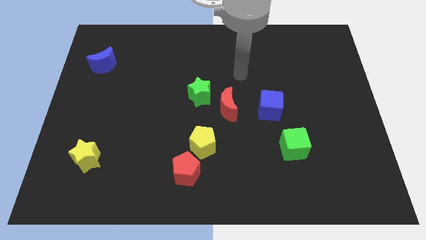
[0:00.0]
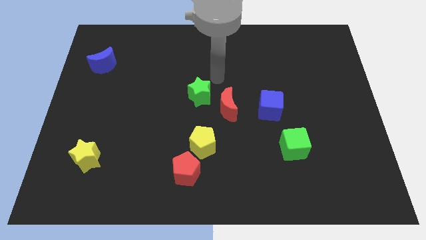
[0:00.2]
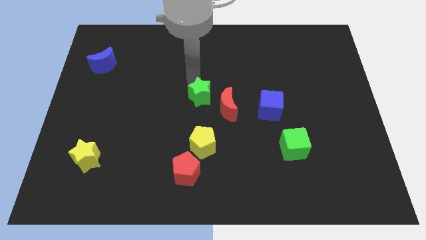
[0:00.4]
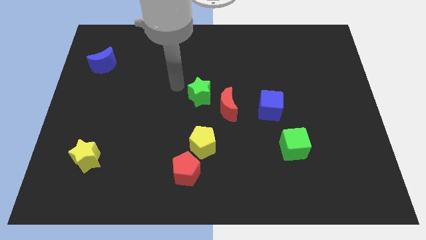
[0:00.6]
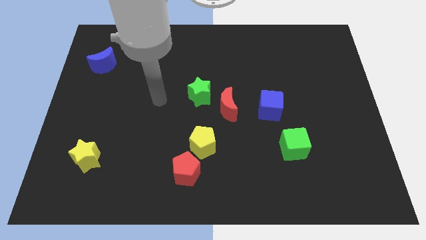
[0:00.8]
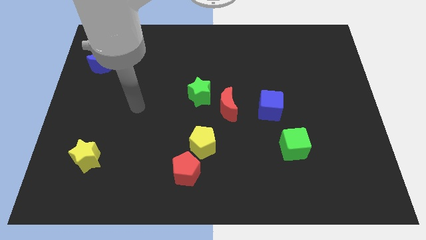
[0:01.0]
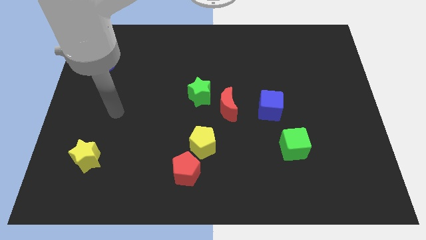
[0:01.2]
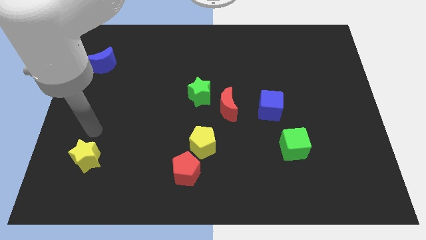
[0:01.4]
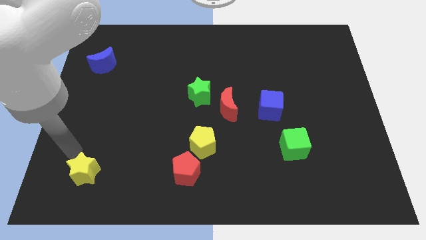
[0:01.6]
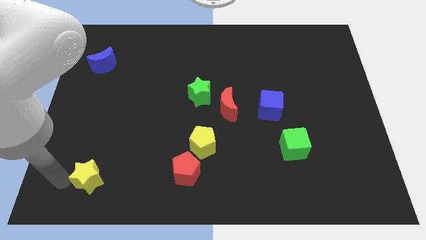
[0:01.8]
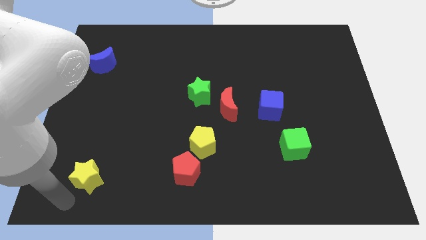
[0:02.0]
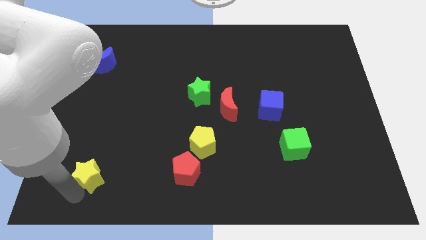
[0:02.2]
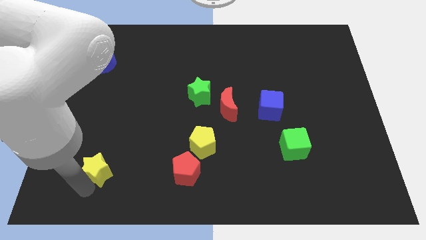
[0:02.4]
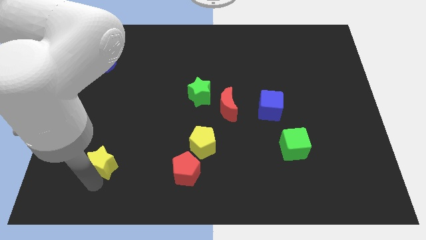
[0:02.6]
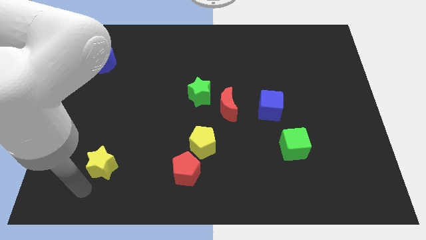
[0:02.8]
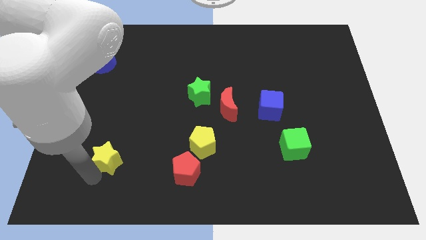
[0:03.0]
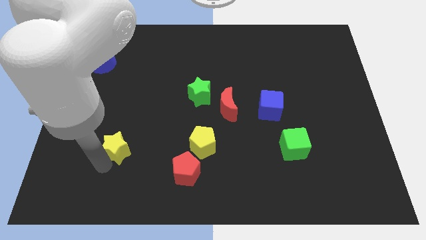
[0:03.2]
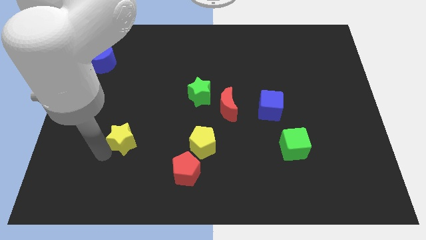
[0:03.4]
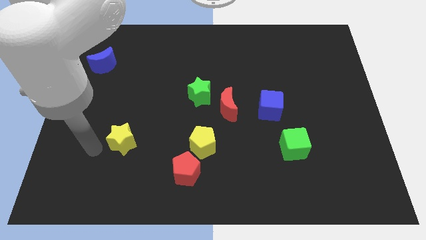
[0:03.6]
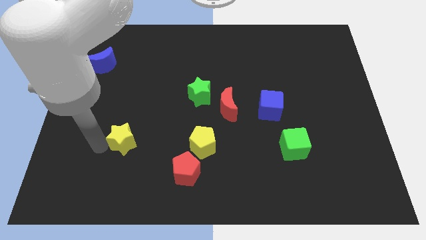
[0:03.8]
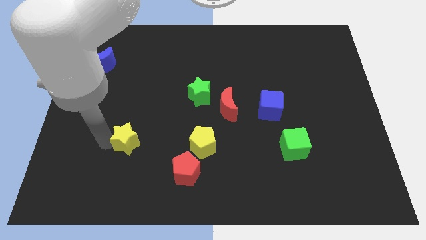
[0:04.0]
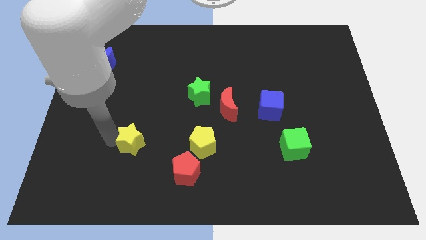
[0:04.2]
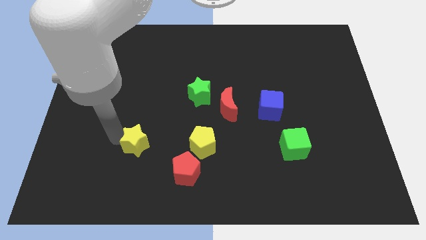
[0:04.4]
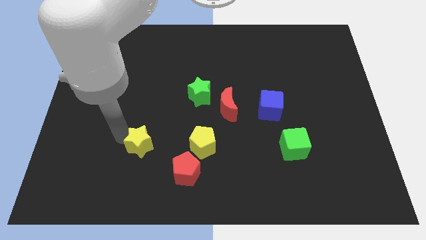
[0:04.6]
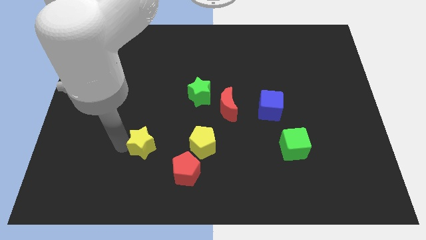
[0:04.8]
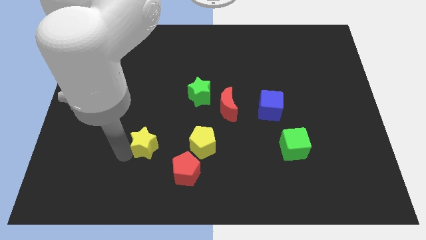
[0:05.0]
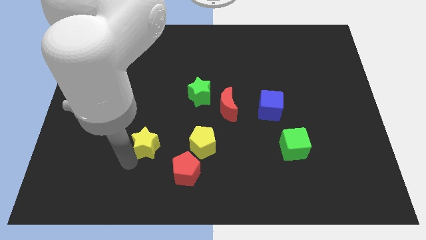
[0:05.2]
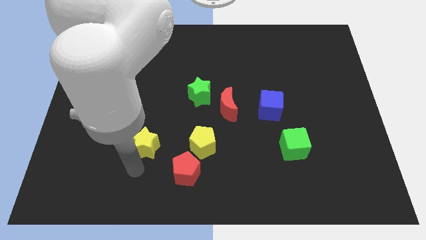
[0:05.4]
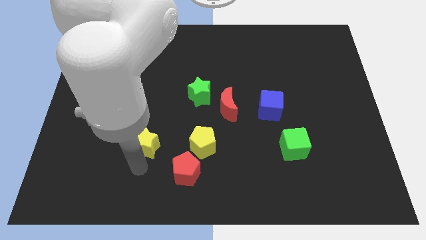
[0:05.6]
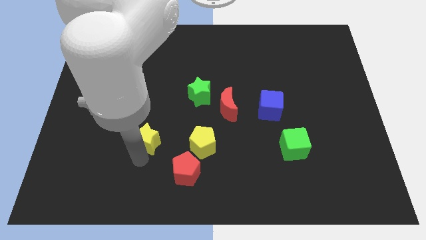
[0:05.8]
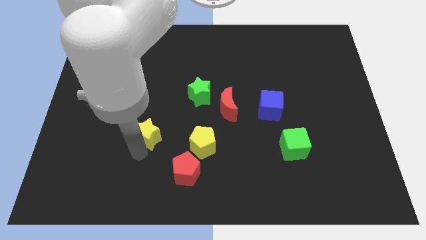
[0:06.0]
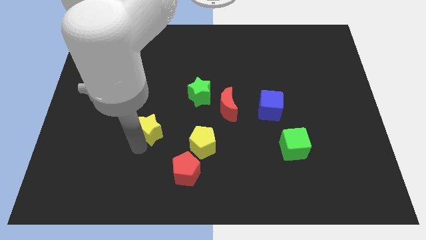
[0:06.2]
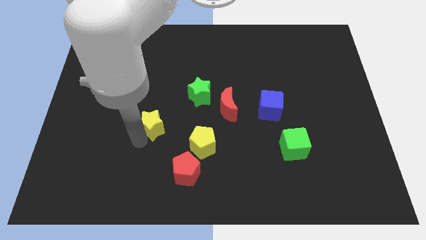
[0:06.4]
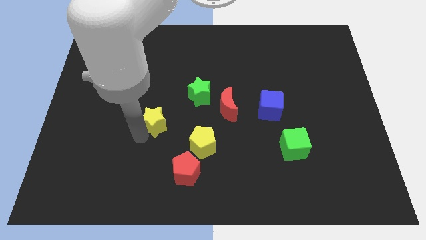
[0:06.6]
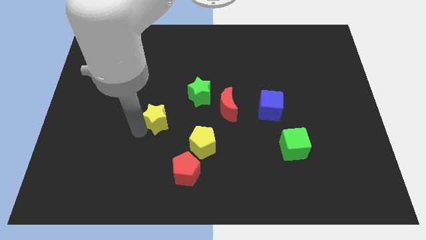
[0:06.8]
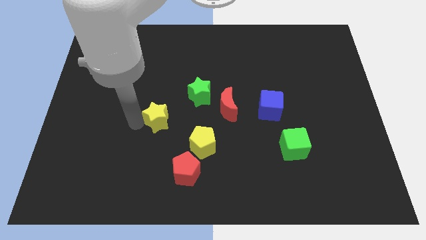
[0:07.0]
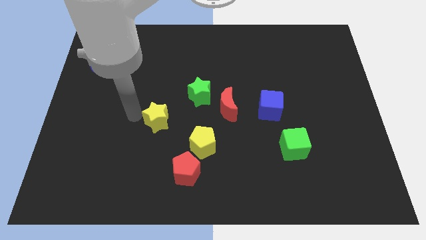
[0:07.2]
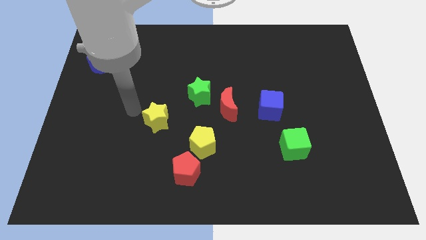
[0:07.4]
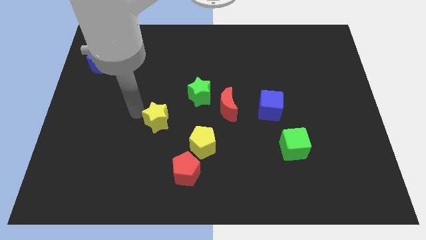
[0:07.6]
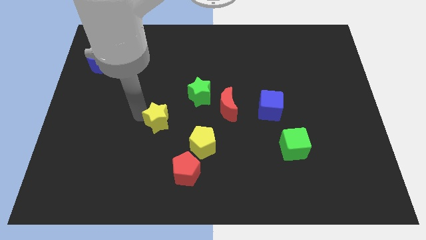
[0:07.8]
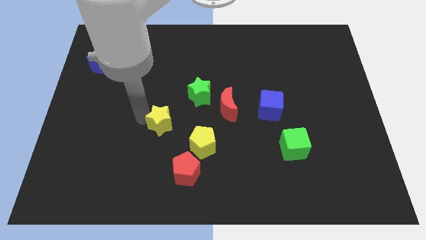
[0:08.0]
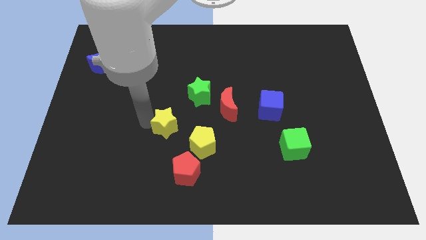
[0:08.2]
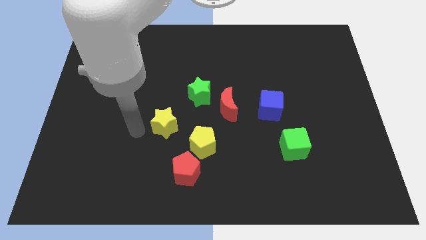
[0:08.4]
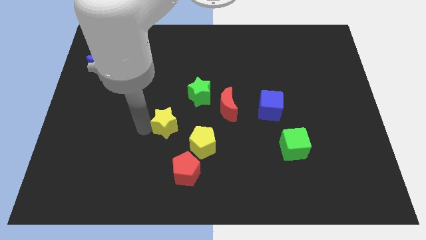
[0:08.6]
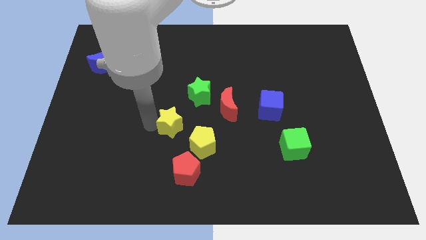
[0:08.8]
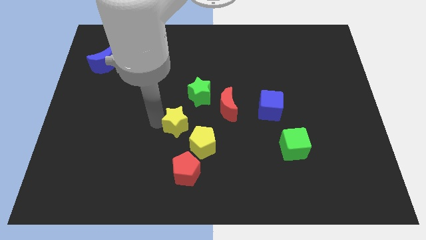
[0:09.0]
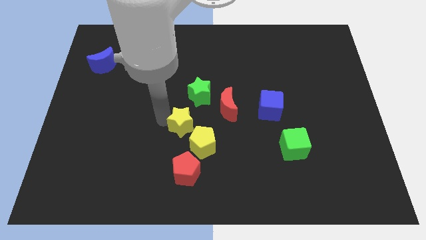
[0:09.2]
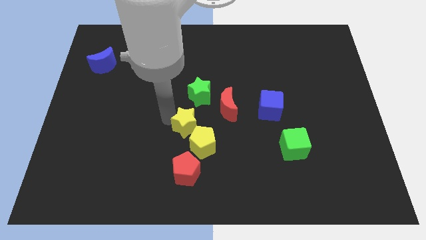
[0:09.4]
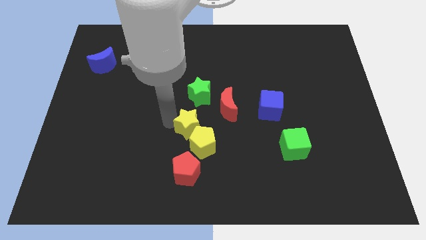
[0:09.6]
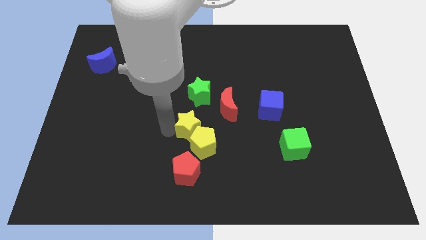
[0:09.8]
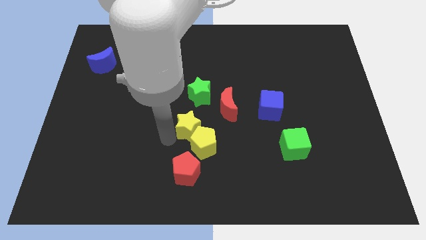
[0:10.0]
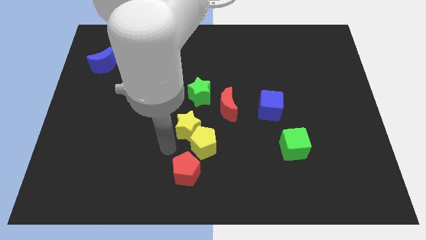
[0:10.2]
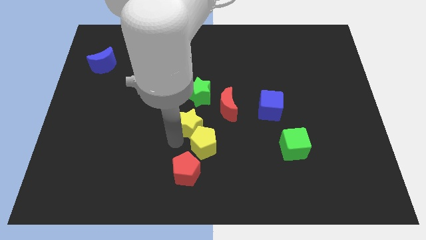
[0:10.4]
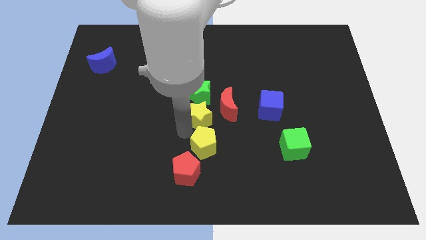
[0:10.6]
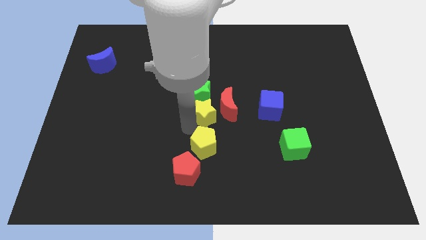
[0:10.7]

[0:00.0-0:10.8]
push the yellow star close to the red moon

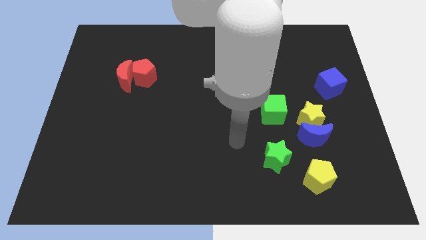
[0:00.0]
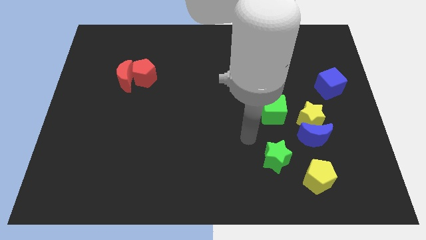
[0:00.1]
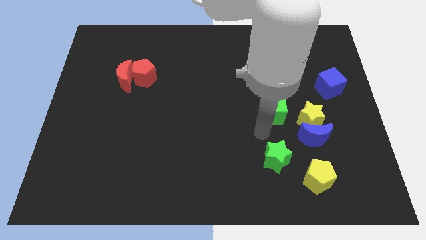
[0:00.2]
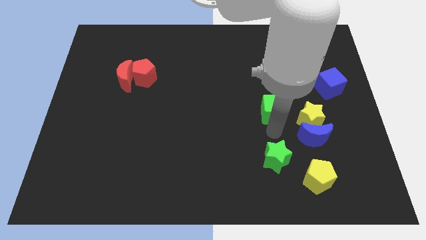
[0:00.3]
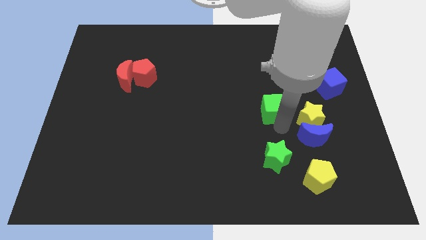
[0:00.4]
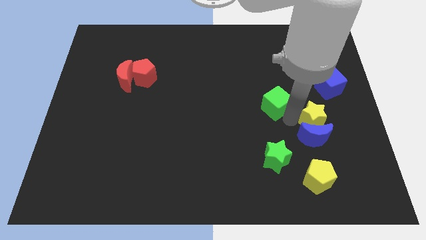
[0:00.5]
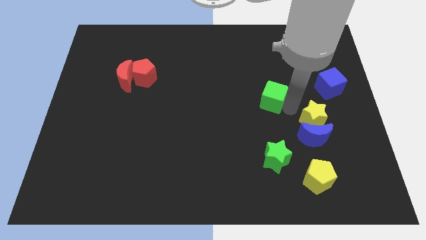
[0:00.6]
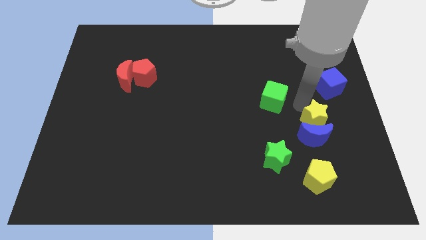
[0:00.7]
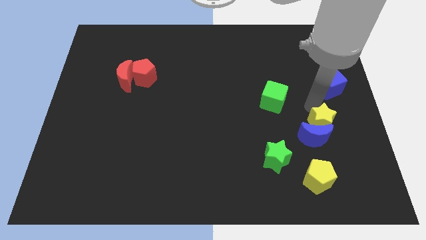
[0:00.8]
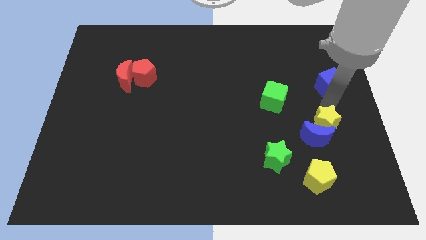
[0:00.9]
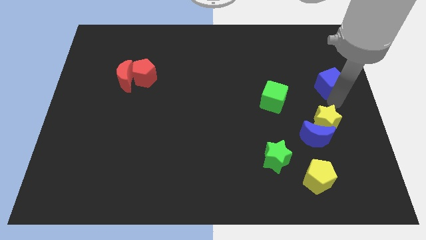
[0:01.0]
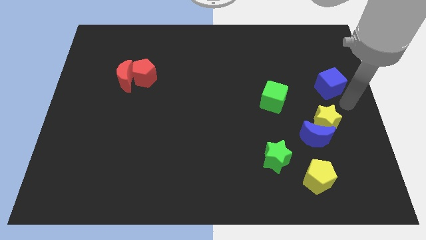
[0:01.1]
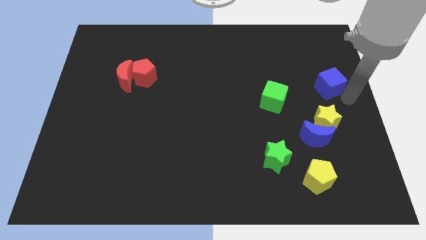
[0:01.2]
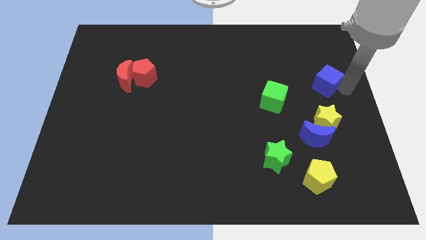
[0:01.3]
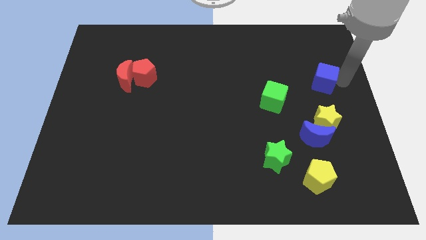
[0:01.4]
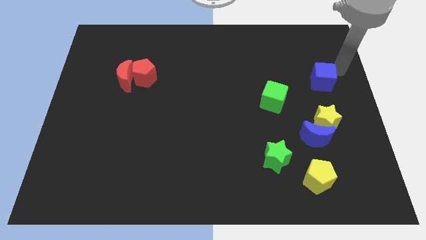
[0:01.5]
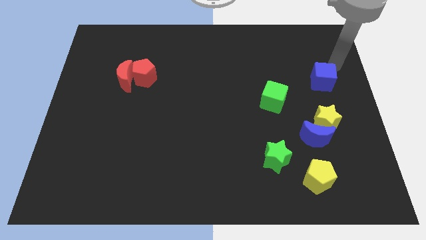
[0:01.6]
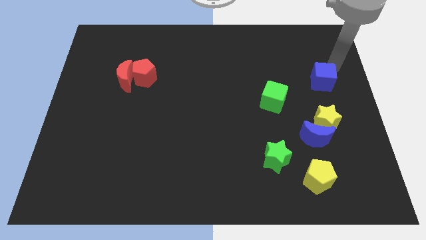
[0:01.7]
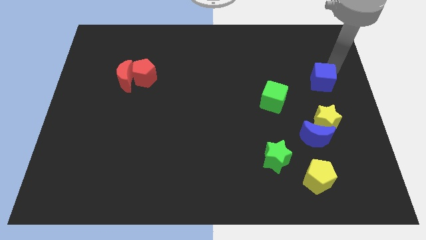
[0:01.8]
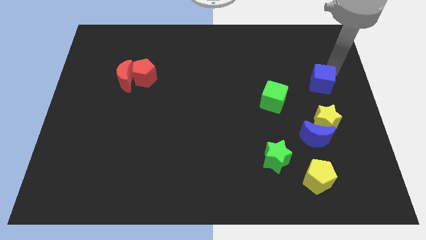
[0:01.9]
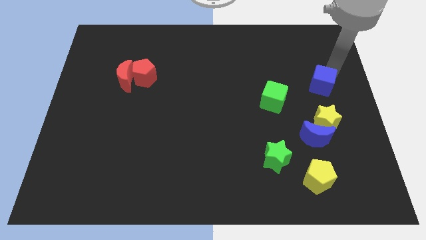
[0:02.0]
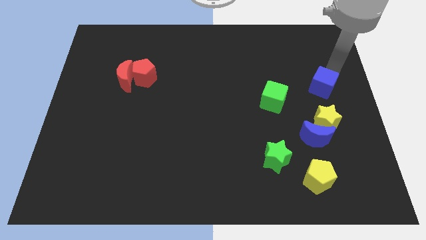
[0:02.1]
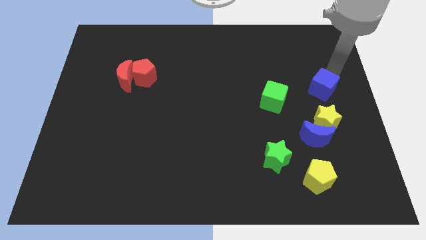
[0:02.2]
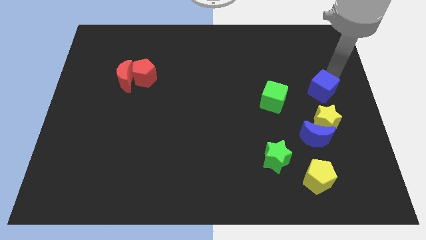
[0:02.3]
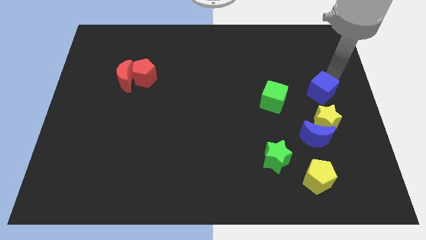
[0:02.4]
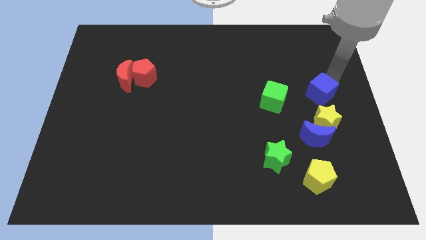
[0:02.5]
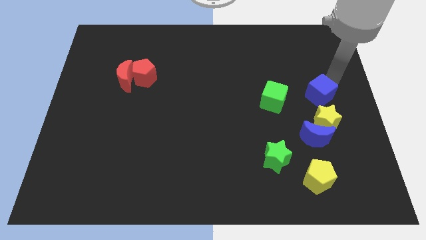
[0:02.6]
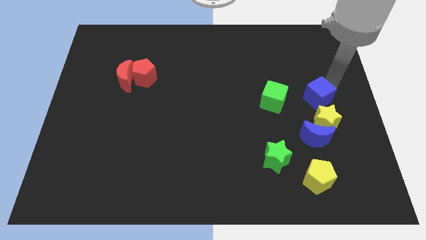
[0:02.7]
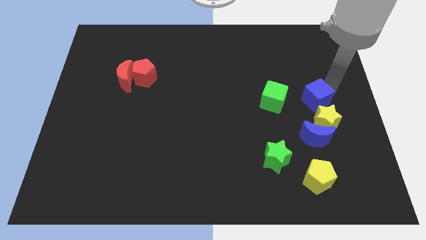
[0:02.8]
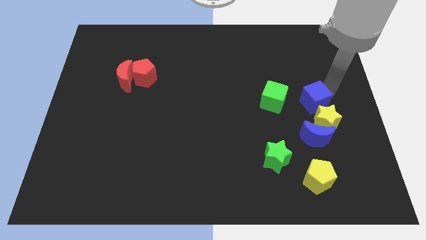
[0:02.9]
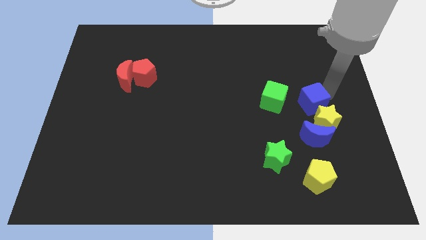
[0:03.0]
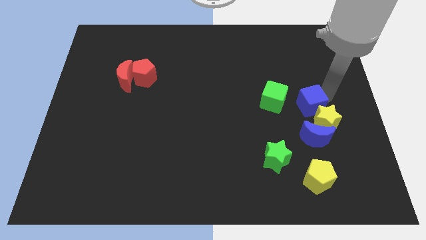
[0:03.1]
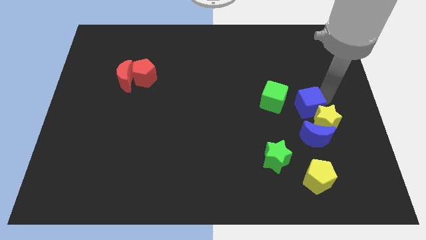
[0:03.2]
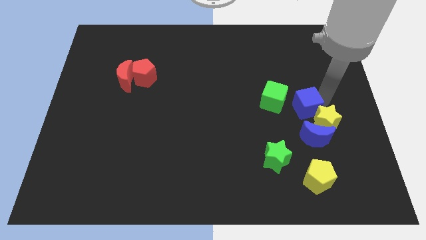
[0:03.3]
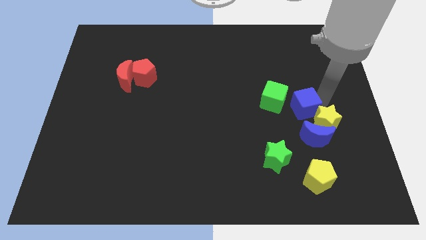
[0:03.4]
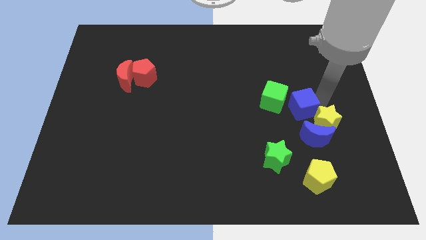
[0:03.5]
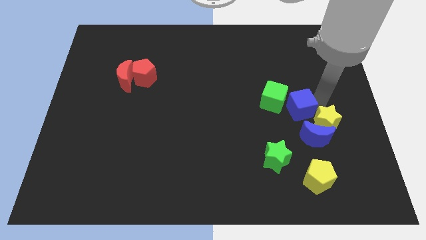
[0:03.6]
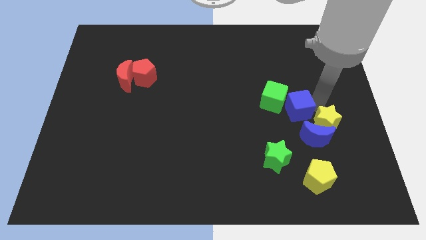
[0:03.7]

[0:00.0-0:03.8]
push the blue cube towards the green cube
